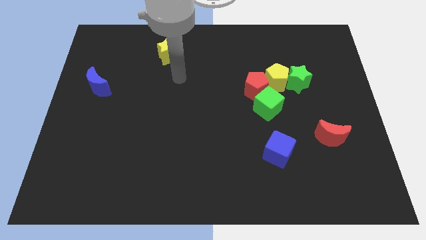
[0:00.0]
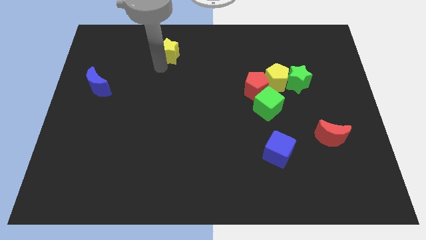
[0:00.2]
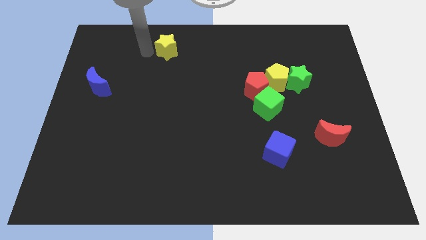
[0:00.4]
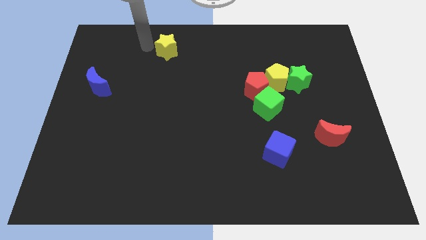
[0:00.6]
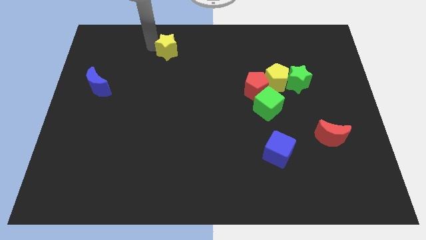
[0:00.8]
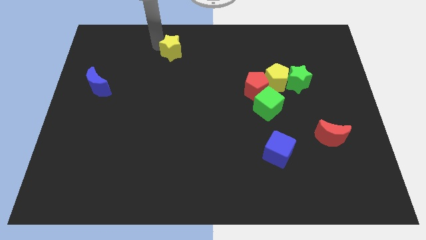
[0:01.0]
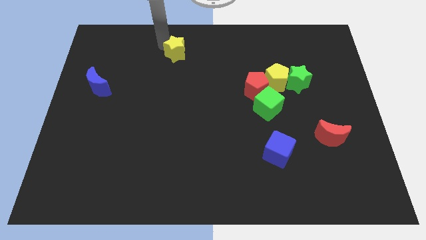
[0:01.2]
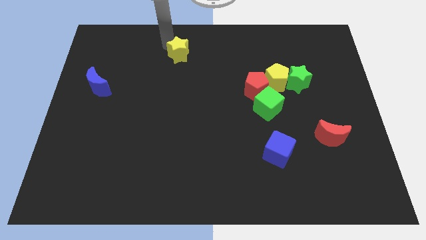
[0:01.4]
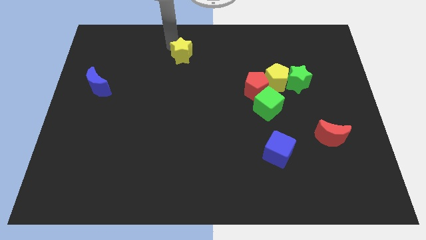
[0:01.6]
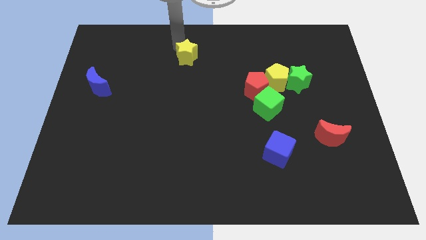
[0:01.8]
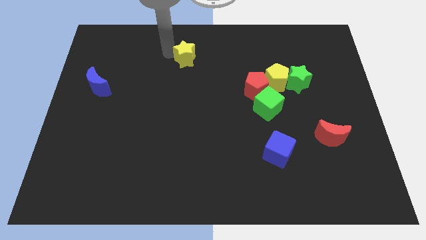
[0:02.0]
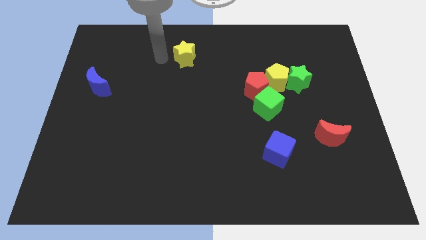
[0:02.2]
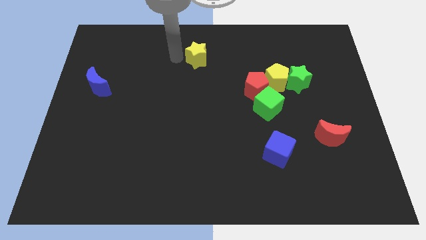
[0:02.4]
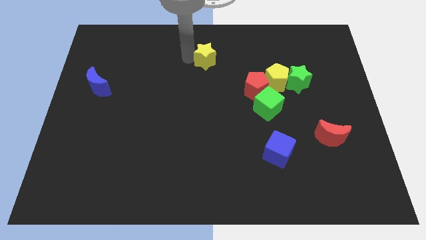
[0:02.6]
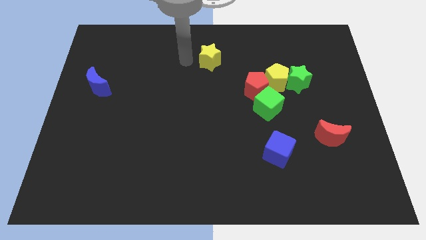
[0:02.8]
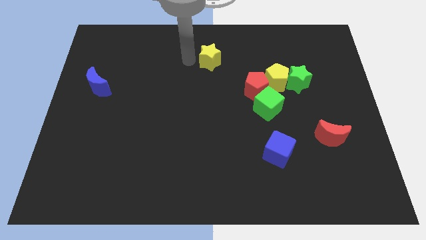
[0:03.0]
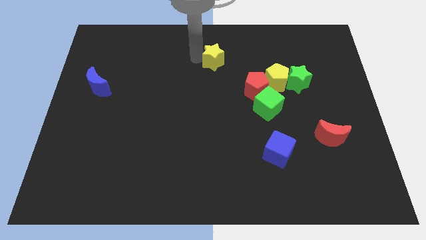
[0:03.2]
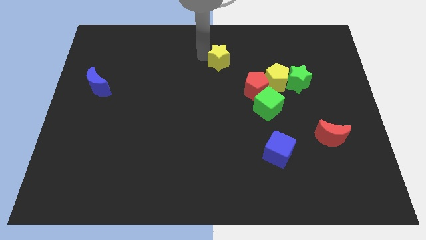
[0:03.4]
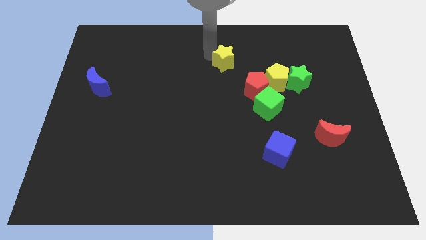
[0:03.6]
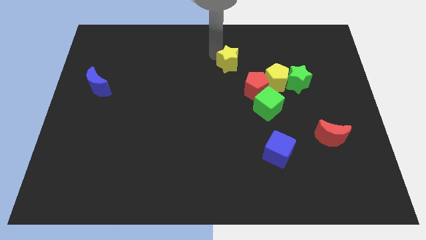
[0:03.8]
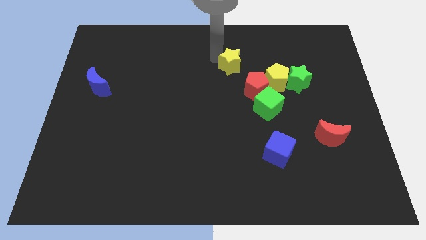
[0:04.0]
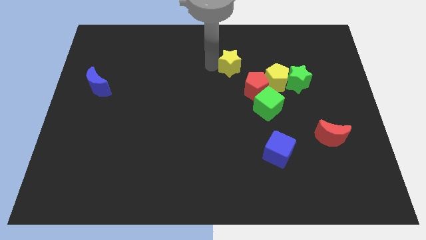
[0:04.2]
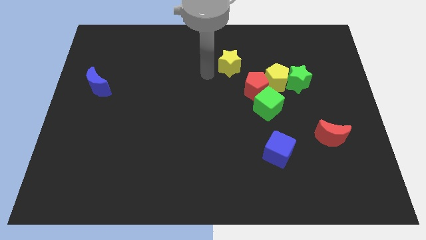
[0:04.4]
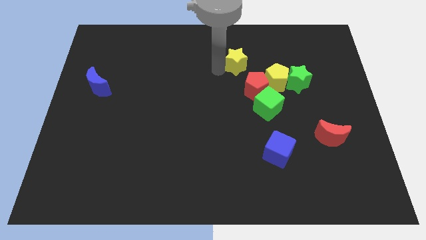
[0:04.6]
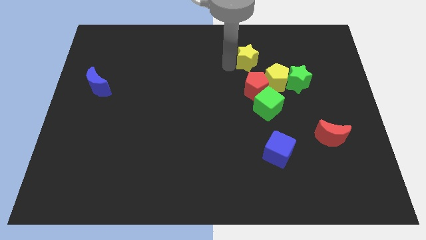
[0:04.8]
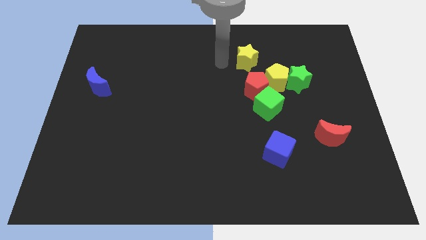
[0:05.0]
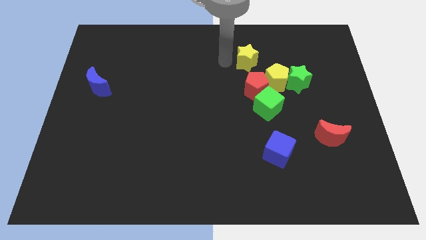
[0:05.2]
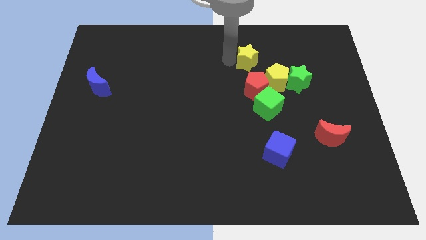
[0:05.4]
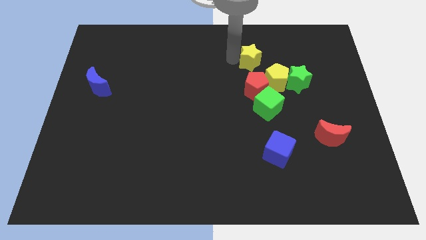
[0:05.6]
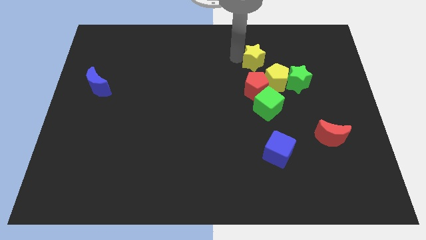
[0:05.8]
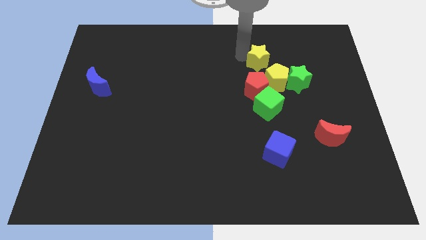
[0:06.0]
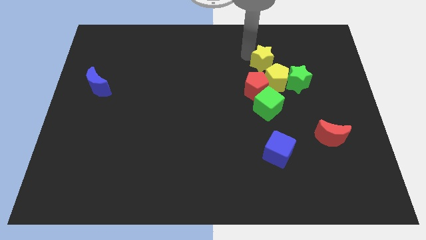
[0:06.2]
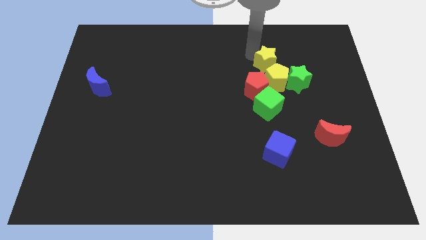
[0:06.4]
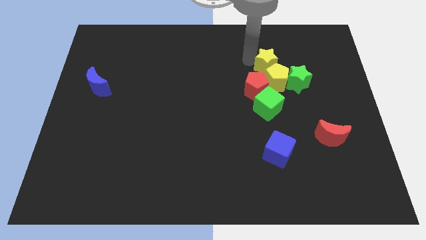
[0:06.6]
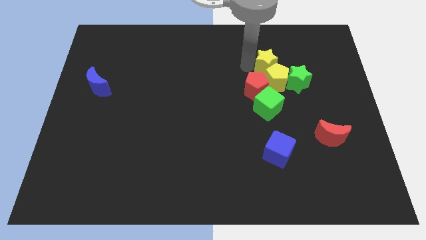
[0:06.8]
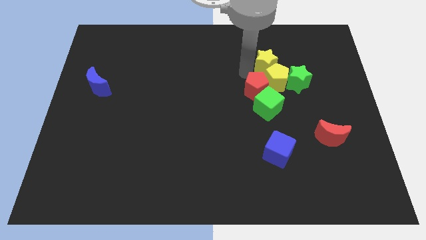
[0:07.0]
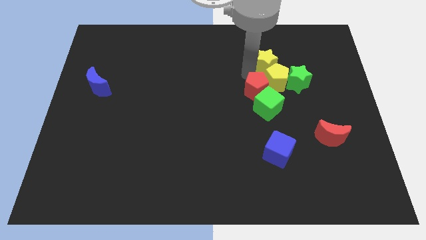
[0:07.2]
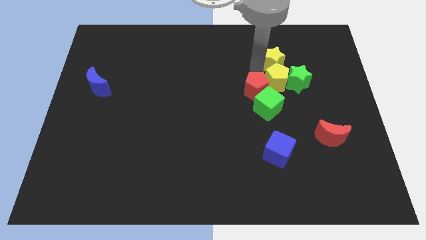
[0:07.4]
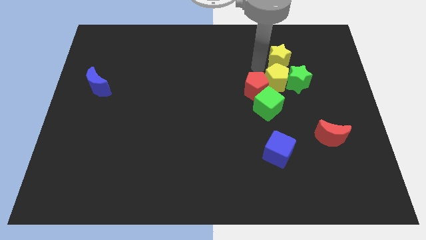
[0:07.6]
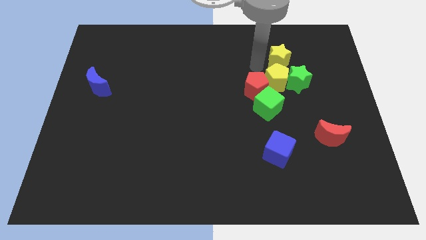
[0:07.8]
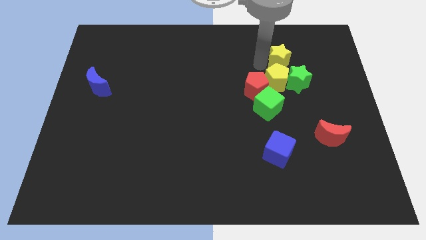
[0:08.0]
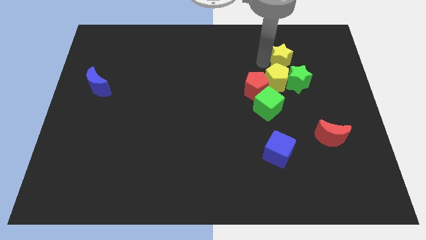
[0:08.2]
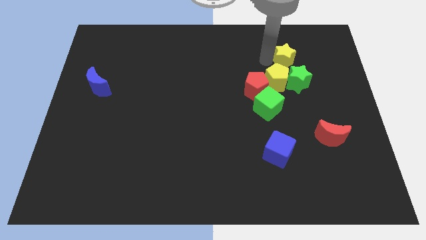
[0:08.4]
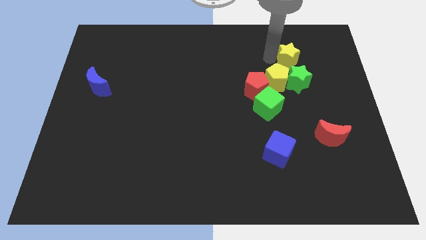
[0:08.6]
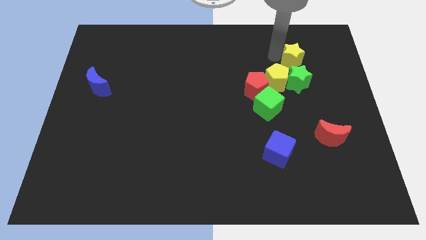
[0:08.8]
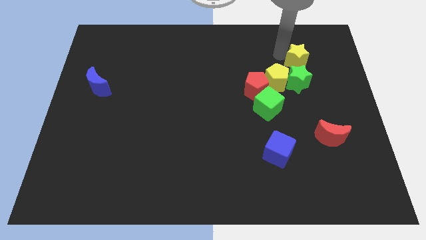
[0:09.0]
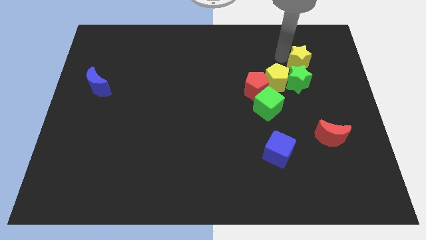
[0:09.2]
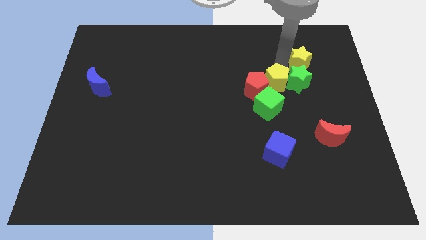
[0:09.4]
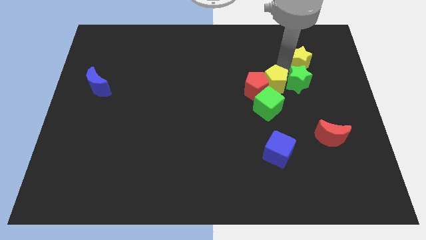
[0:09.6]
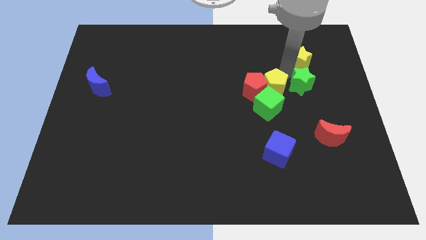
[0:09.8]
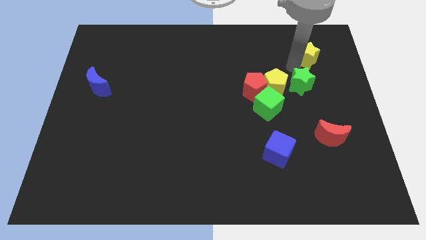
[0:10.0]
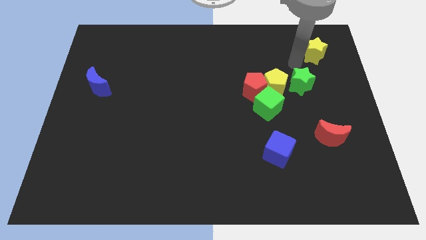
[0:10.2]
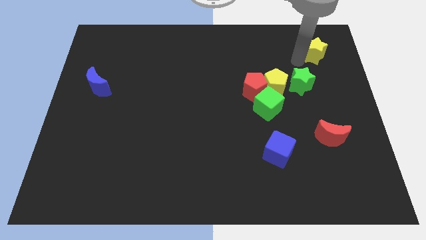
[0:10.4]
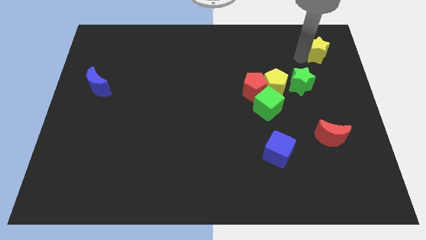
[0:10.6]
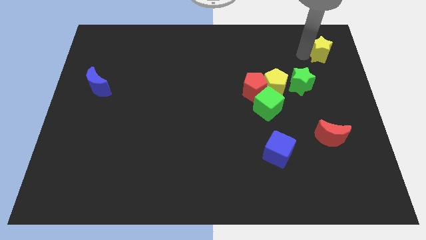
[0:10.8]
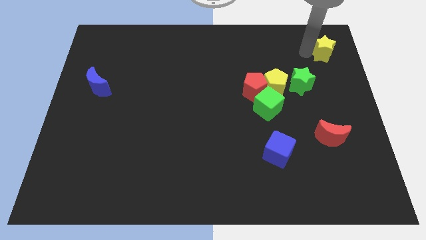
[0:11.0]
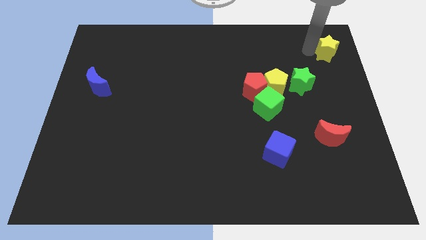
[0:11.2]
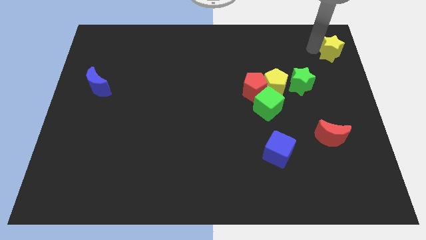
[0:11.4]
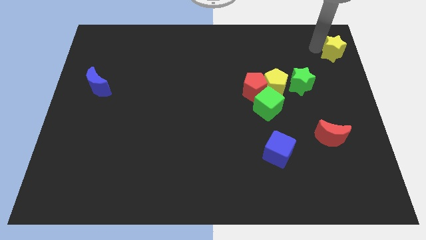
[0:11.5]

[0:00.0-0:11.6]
put the yellow star to the top right corner

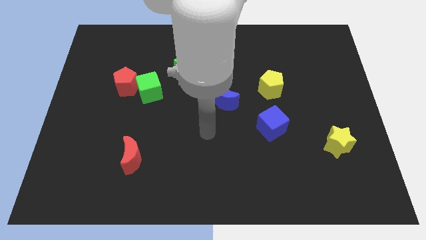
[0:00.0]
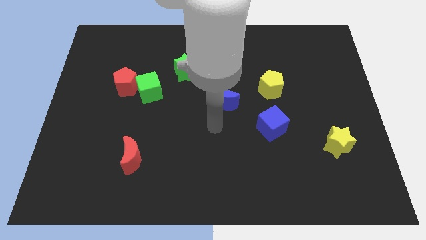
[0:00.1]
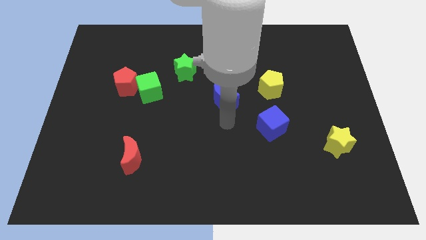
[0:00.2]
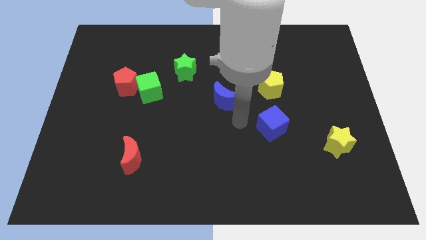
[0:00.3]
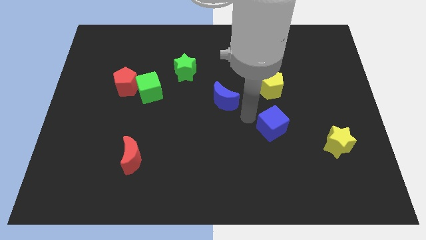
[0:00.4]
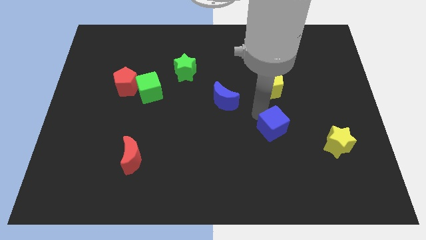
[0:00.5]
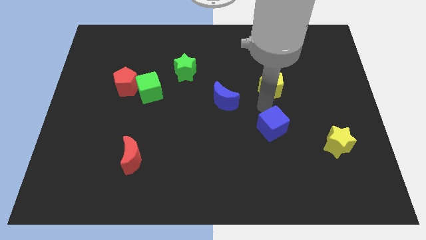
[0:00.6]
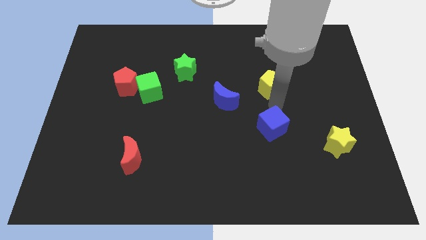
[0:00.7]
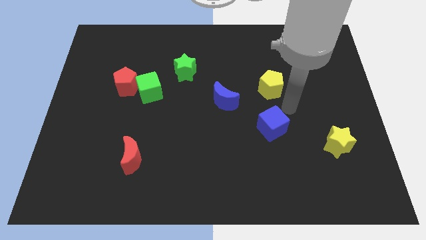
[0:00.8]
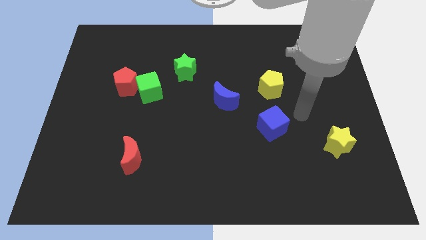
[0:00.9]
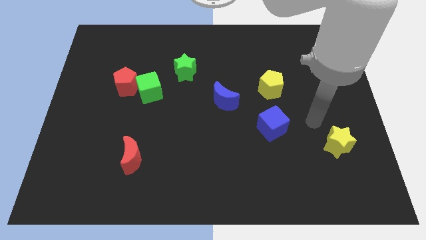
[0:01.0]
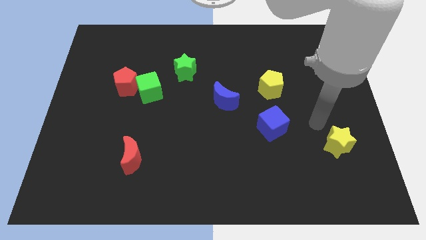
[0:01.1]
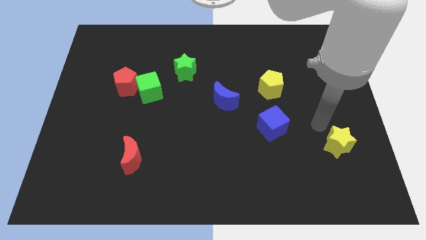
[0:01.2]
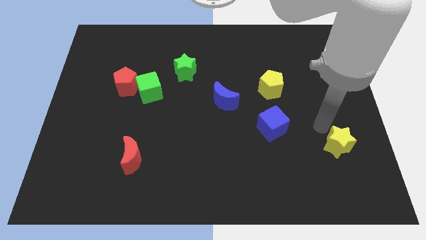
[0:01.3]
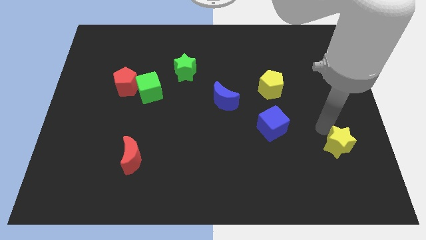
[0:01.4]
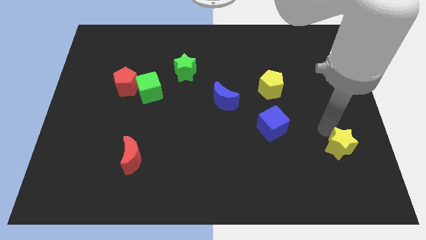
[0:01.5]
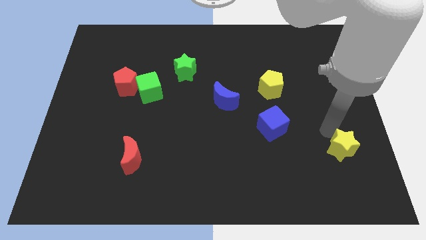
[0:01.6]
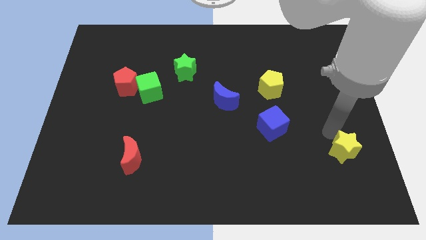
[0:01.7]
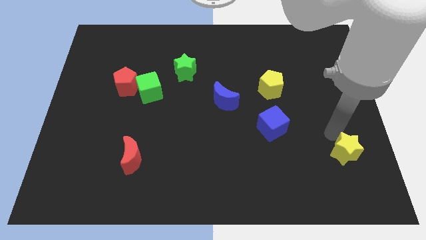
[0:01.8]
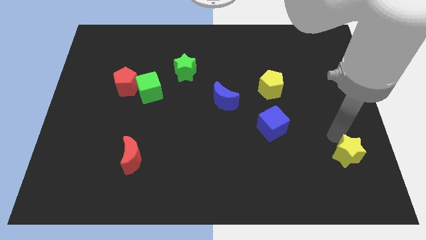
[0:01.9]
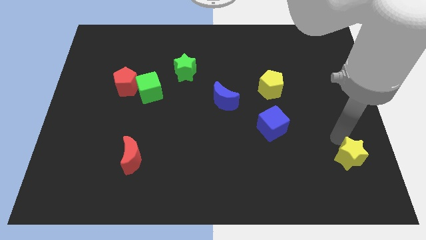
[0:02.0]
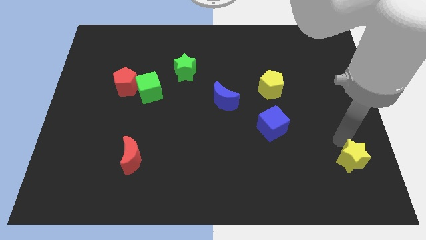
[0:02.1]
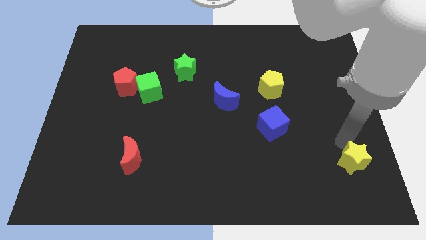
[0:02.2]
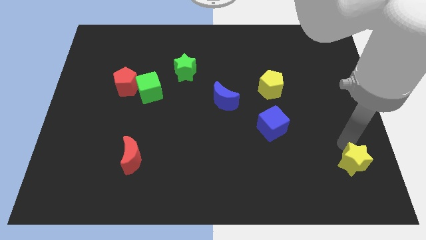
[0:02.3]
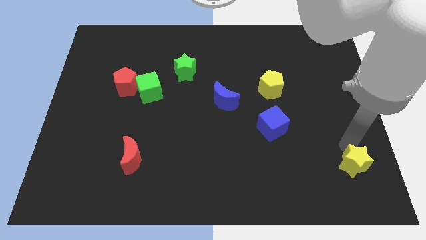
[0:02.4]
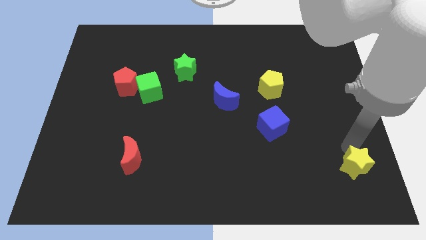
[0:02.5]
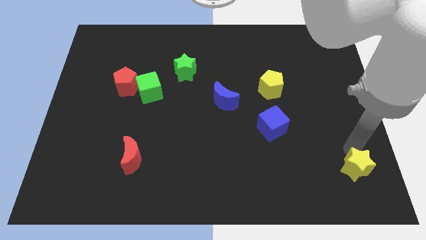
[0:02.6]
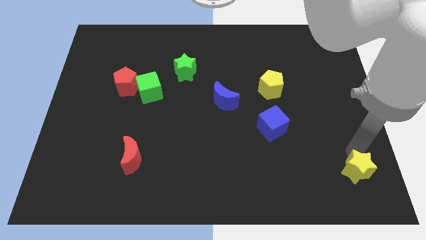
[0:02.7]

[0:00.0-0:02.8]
move the yellow star to the bottom right of the board
